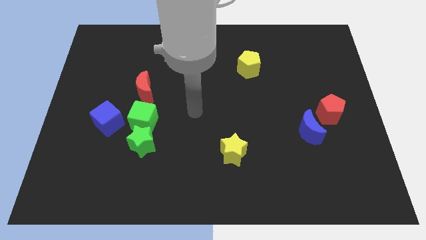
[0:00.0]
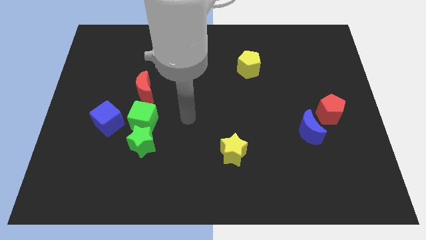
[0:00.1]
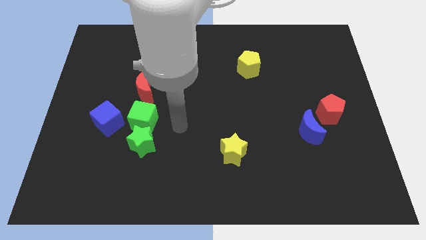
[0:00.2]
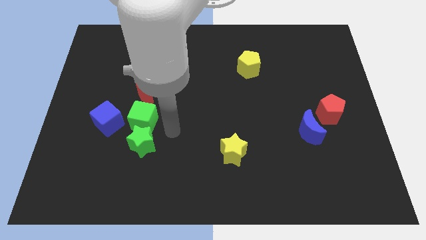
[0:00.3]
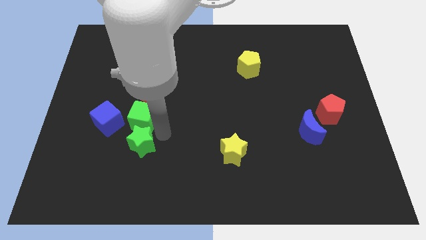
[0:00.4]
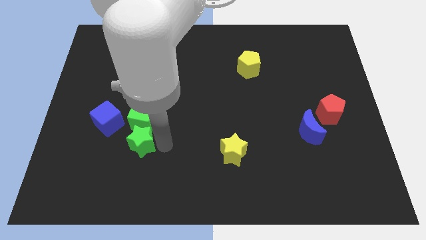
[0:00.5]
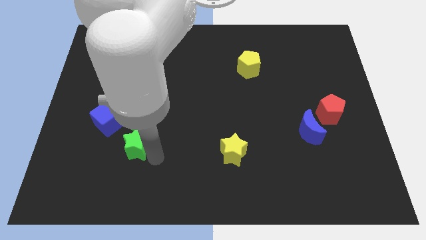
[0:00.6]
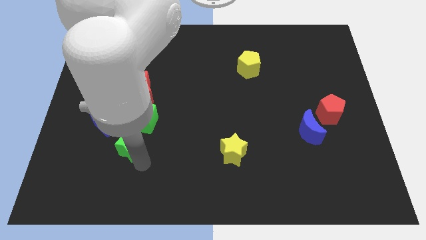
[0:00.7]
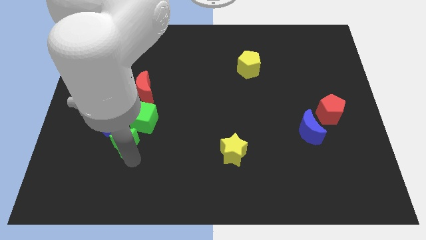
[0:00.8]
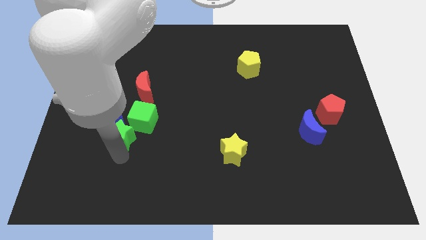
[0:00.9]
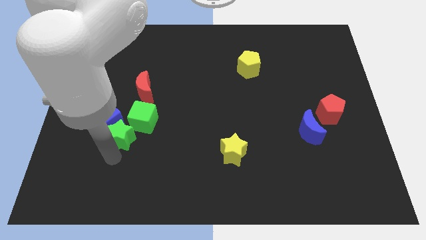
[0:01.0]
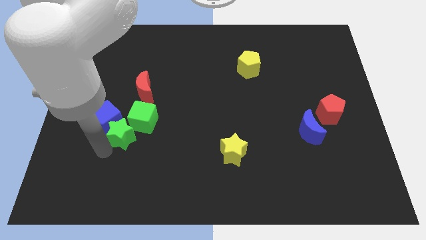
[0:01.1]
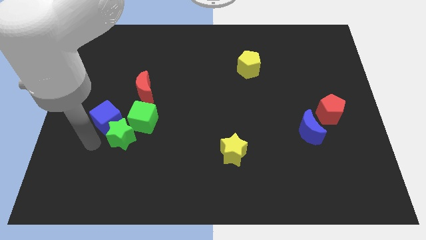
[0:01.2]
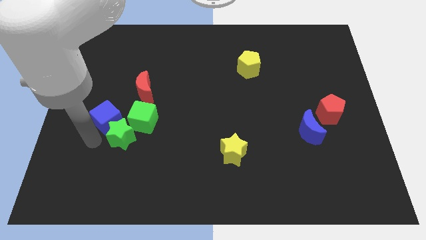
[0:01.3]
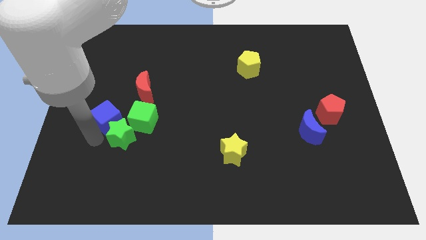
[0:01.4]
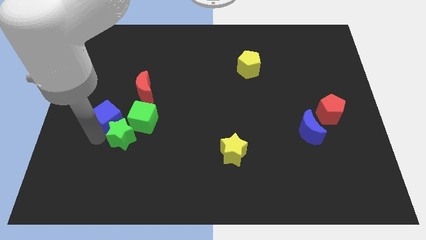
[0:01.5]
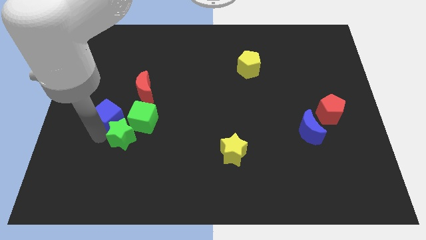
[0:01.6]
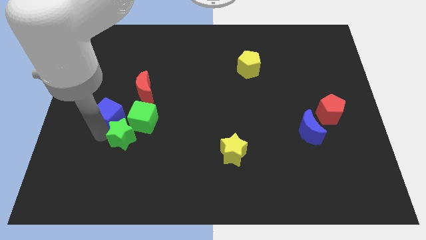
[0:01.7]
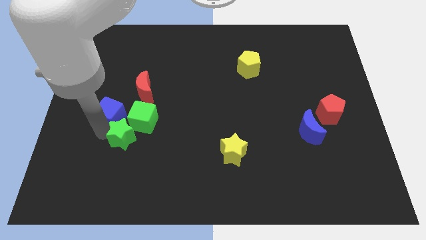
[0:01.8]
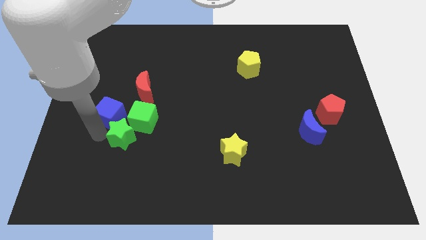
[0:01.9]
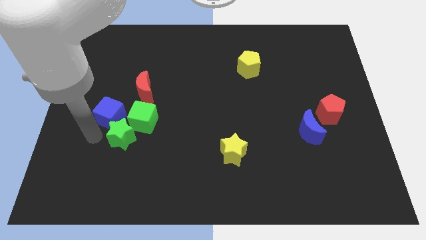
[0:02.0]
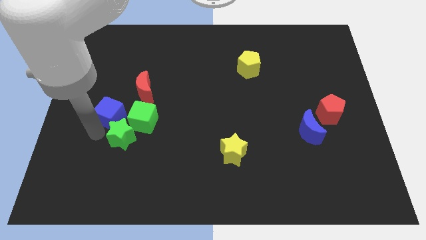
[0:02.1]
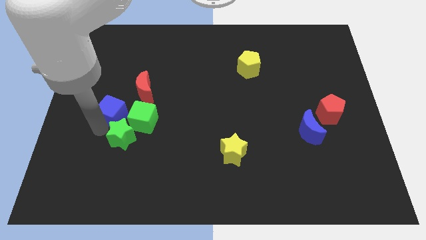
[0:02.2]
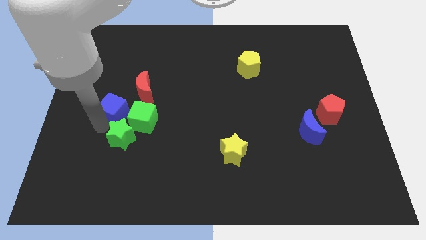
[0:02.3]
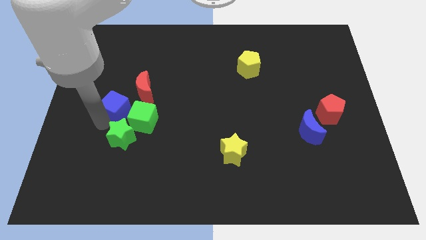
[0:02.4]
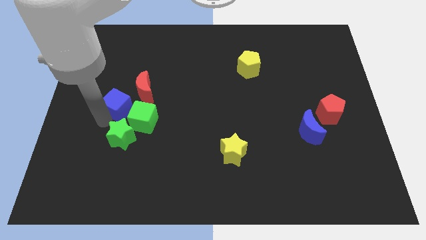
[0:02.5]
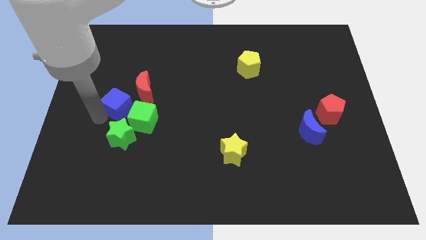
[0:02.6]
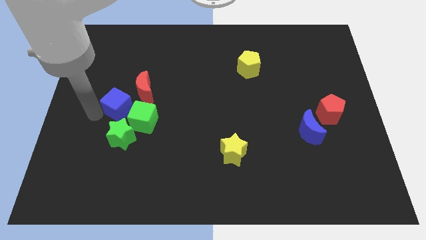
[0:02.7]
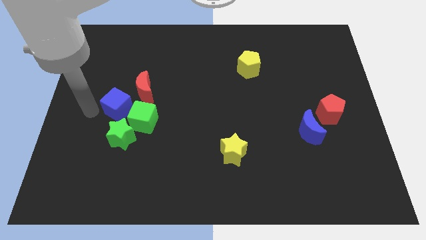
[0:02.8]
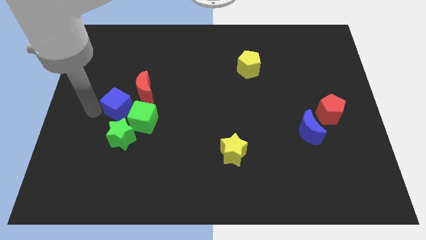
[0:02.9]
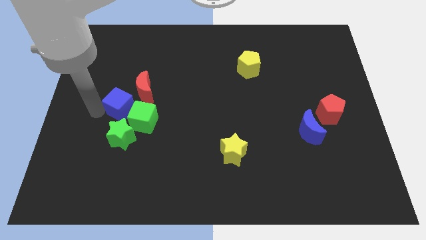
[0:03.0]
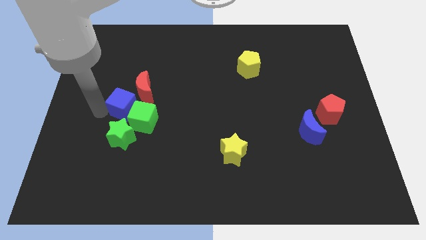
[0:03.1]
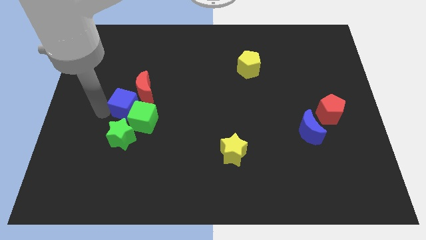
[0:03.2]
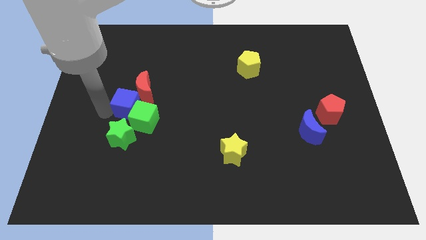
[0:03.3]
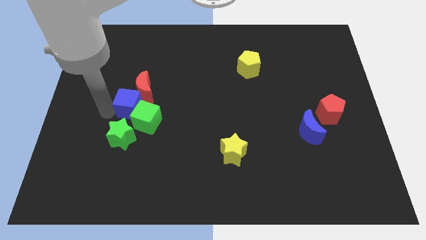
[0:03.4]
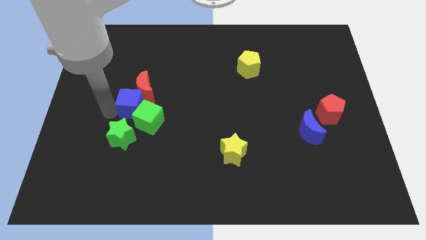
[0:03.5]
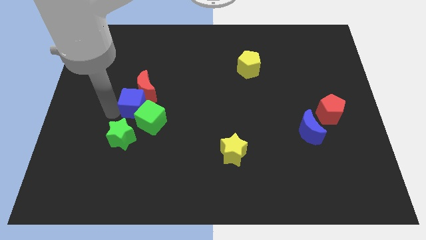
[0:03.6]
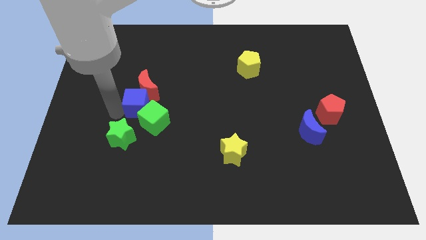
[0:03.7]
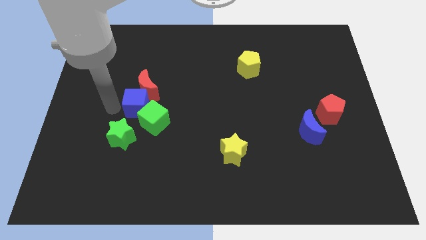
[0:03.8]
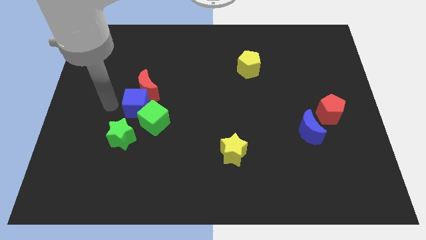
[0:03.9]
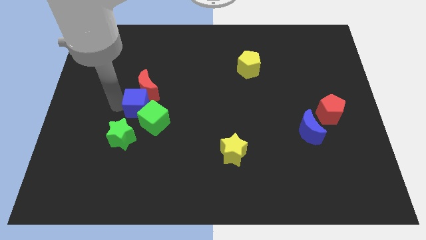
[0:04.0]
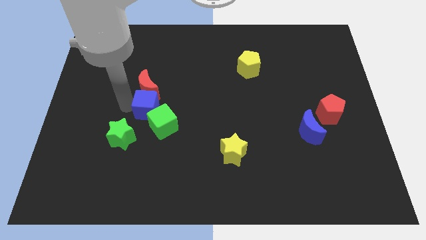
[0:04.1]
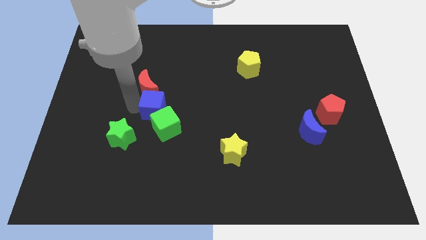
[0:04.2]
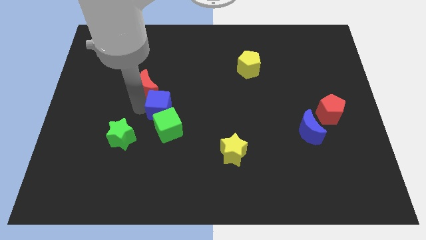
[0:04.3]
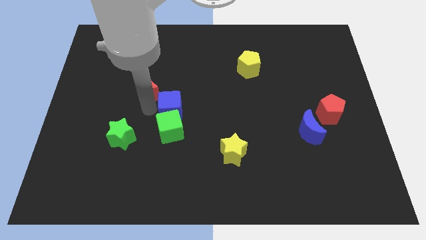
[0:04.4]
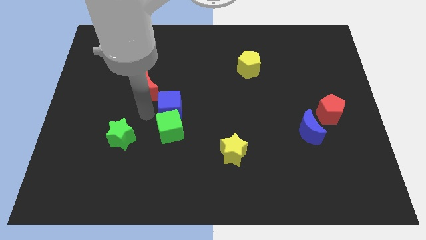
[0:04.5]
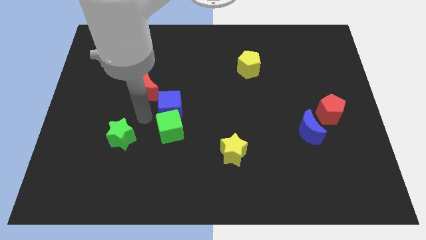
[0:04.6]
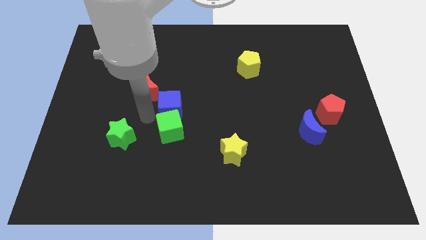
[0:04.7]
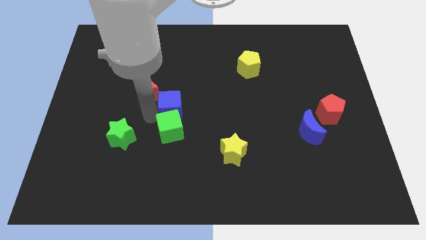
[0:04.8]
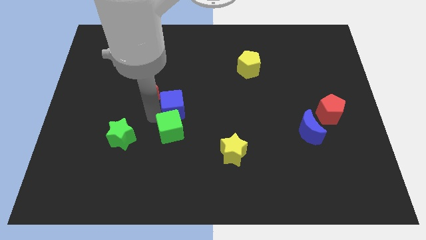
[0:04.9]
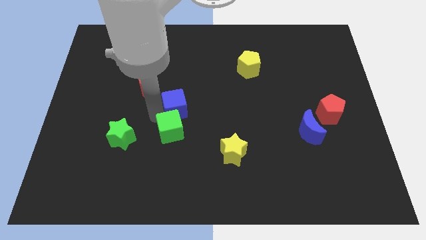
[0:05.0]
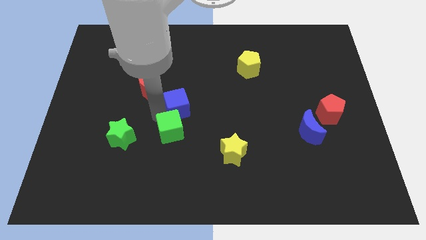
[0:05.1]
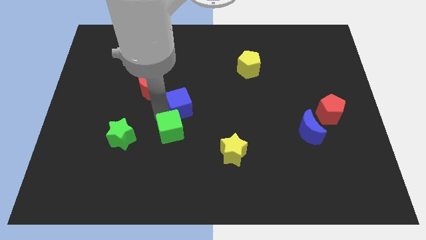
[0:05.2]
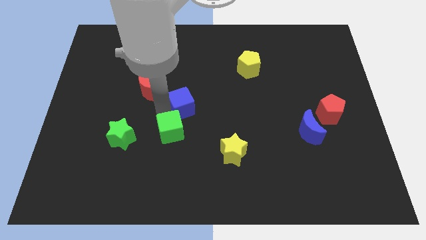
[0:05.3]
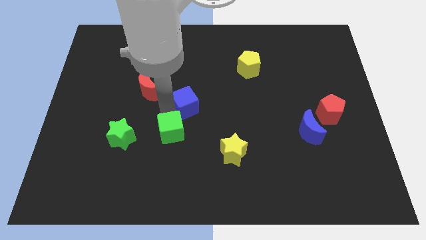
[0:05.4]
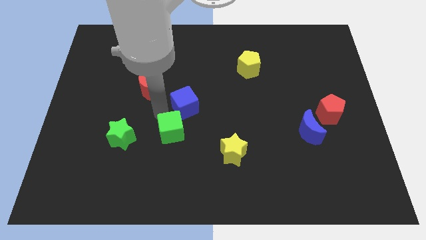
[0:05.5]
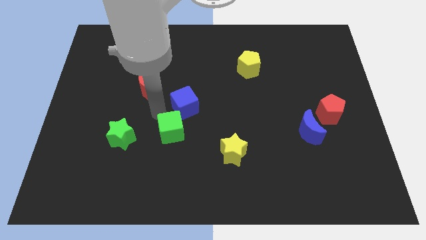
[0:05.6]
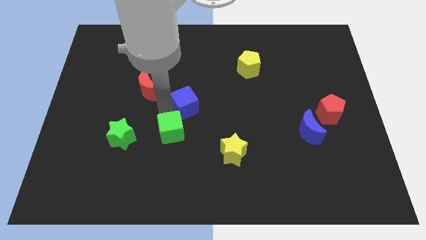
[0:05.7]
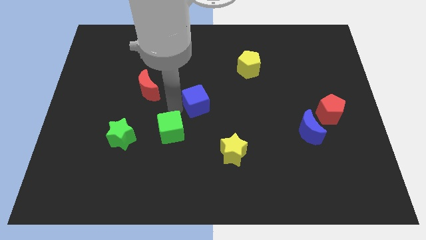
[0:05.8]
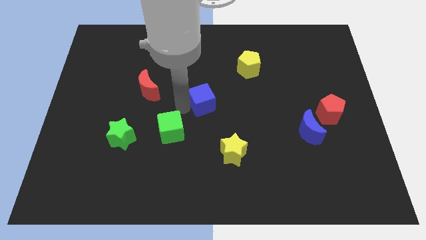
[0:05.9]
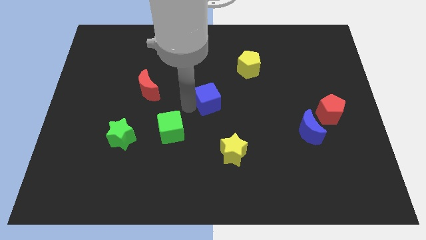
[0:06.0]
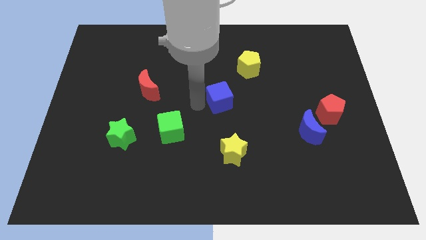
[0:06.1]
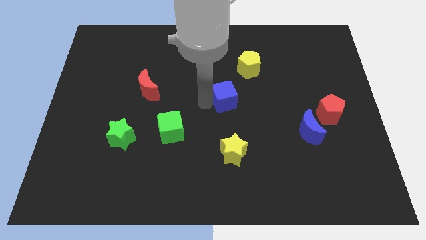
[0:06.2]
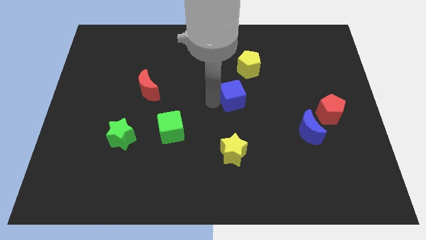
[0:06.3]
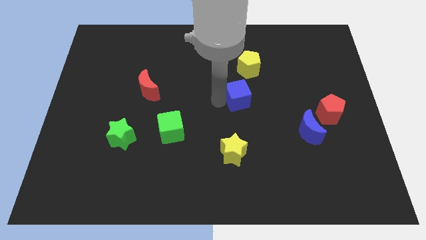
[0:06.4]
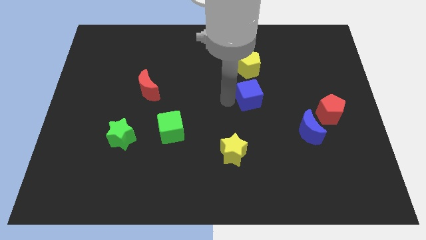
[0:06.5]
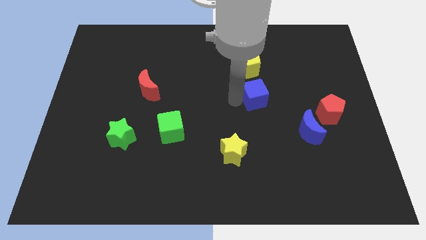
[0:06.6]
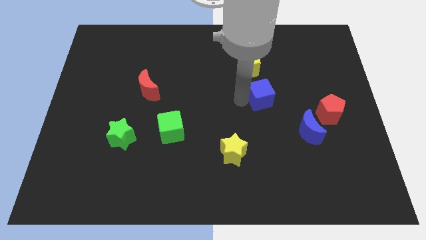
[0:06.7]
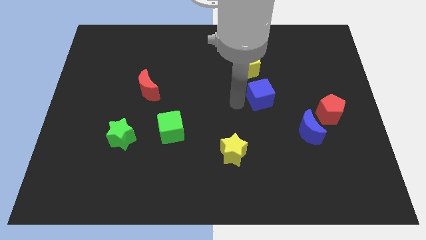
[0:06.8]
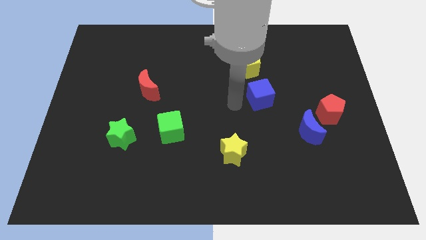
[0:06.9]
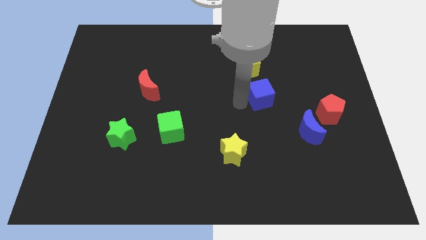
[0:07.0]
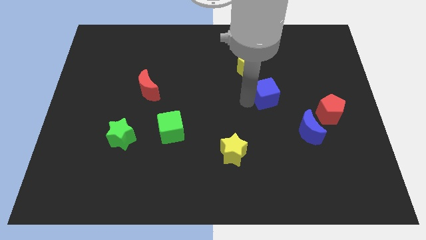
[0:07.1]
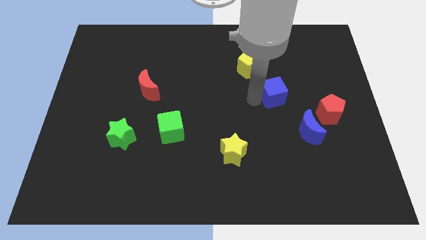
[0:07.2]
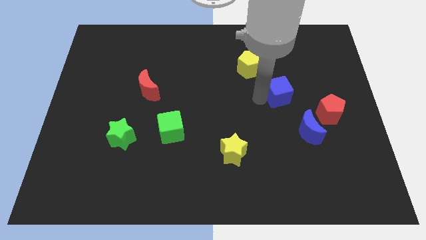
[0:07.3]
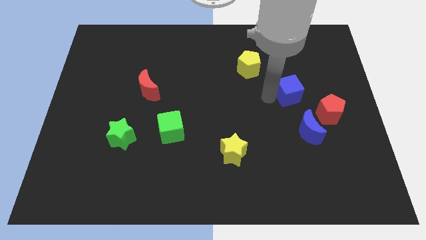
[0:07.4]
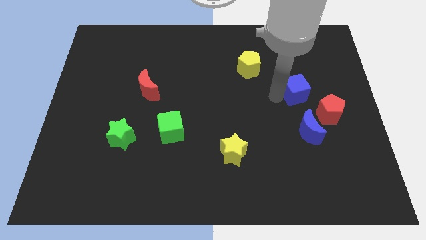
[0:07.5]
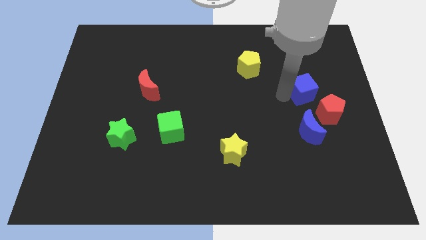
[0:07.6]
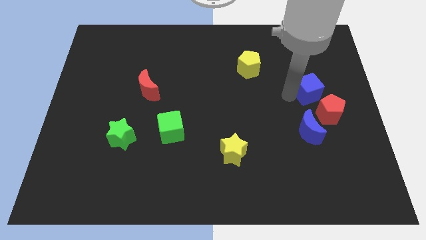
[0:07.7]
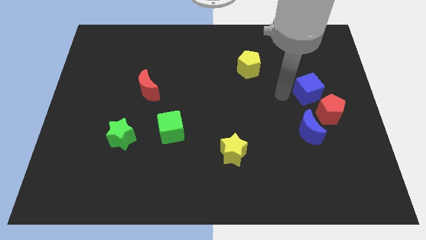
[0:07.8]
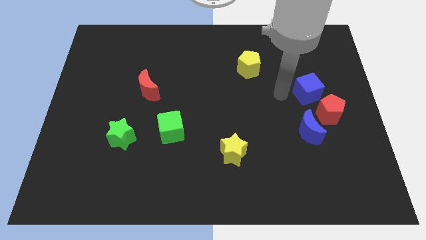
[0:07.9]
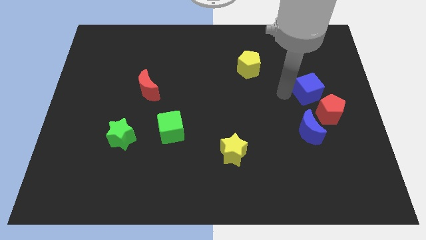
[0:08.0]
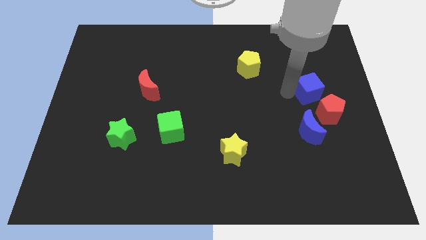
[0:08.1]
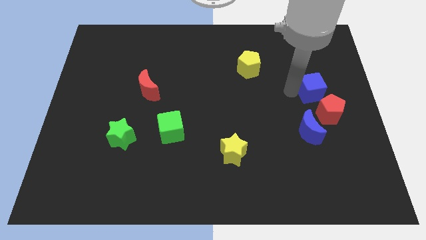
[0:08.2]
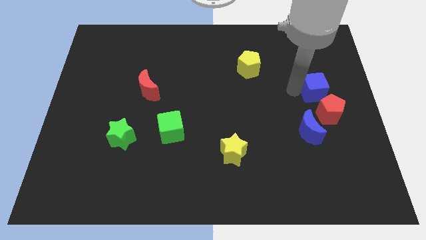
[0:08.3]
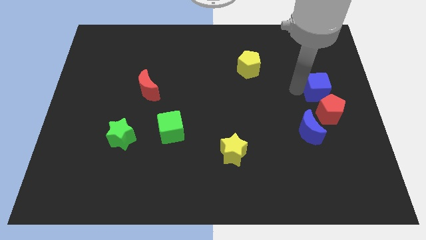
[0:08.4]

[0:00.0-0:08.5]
push the blue cube to the right side of the board
